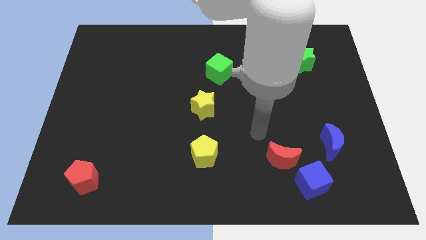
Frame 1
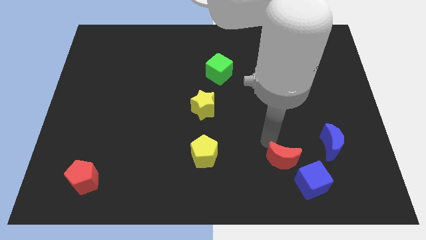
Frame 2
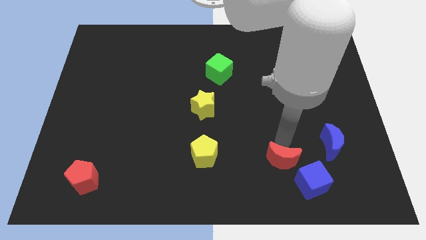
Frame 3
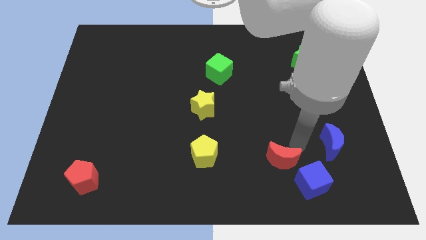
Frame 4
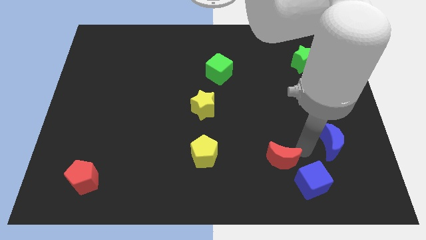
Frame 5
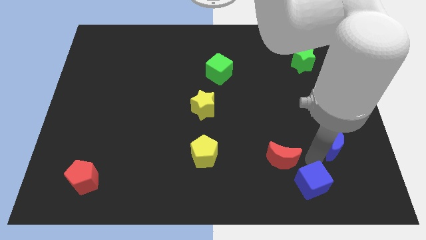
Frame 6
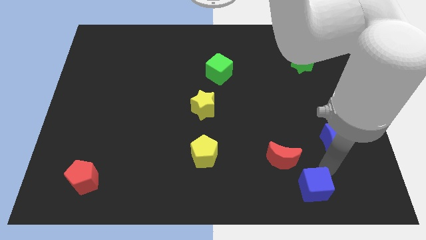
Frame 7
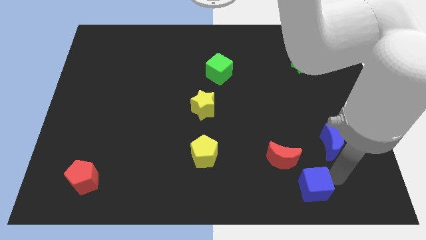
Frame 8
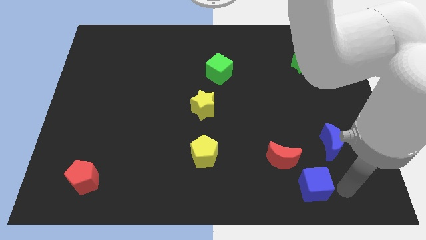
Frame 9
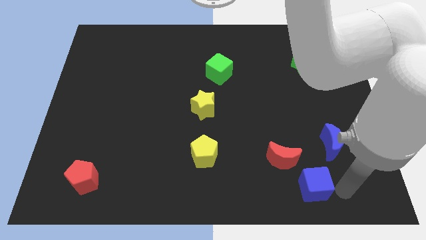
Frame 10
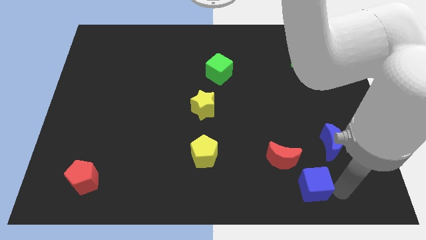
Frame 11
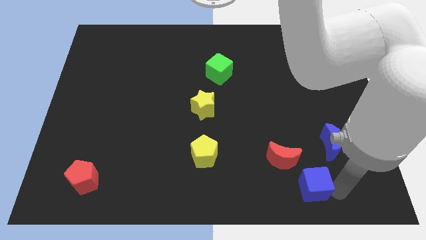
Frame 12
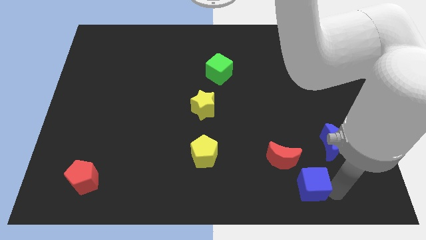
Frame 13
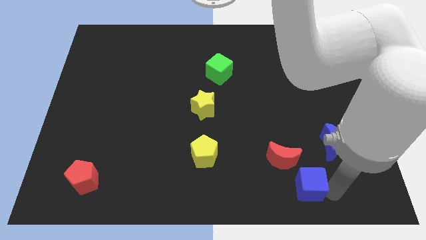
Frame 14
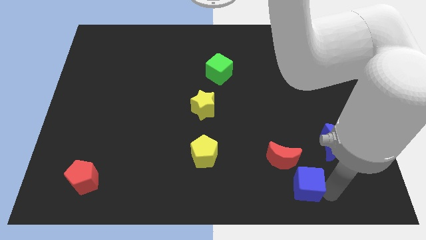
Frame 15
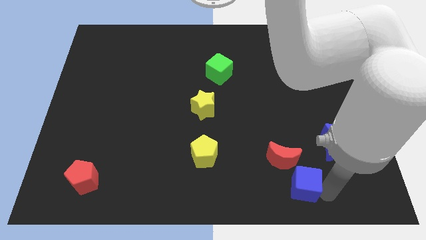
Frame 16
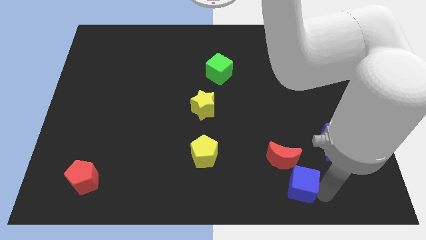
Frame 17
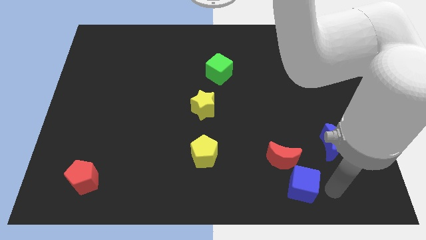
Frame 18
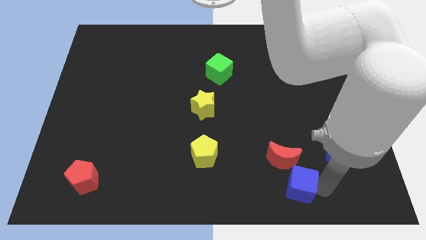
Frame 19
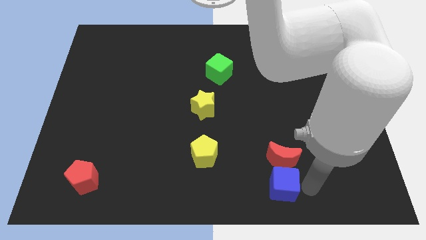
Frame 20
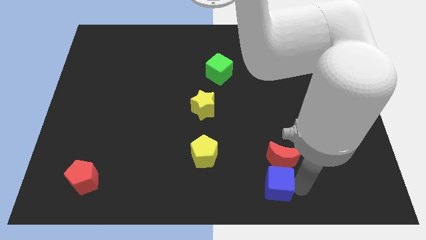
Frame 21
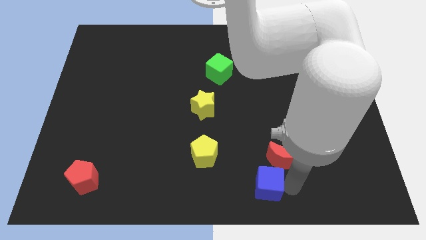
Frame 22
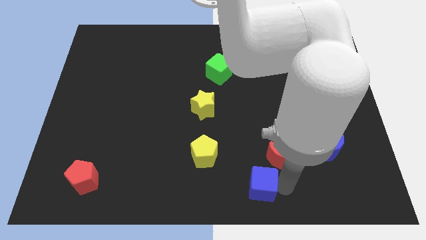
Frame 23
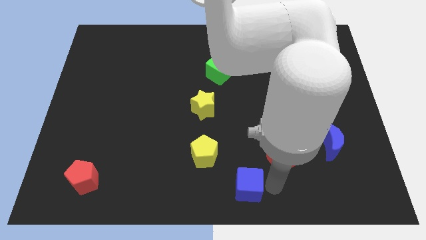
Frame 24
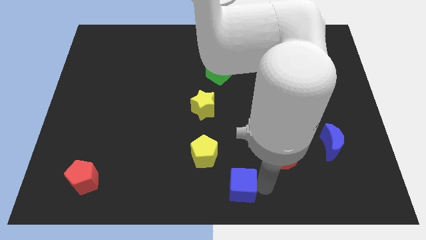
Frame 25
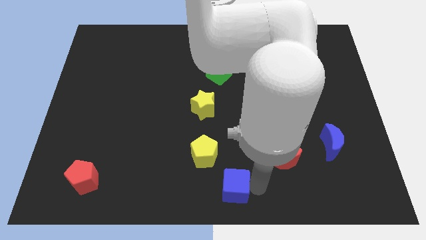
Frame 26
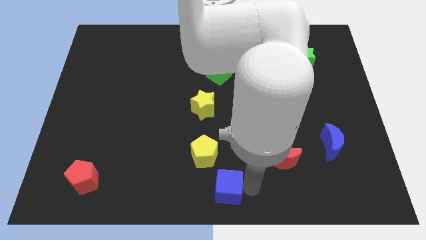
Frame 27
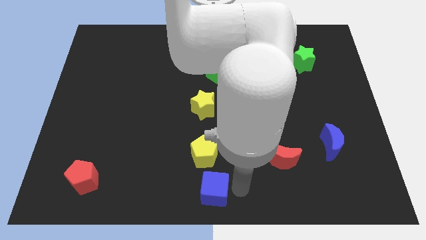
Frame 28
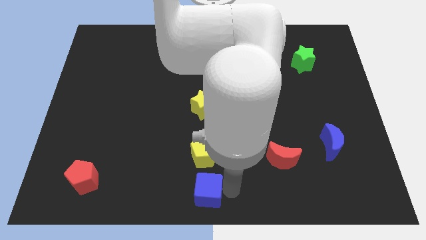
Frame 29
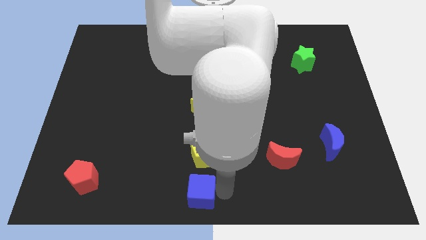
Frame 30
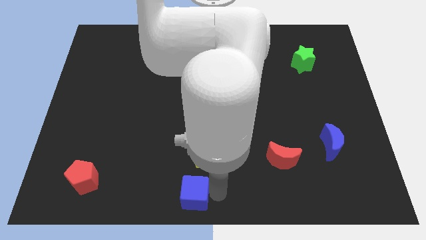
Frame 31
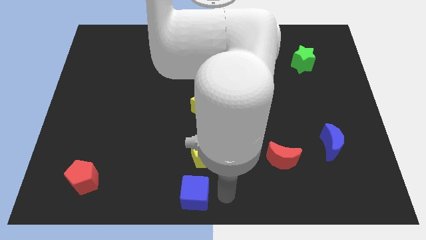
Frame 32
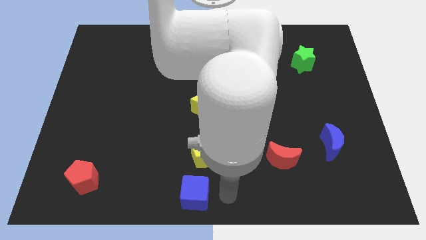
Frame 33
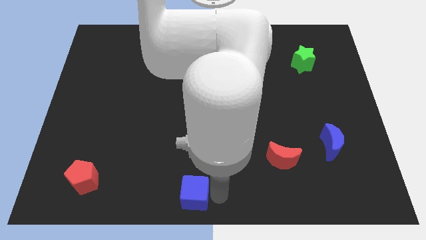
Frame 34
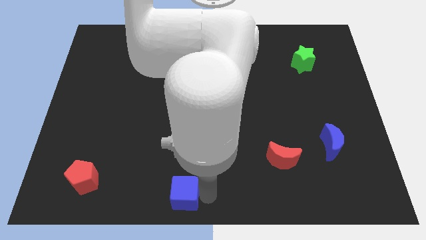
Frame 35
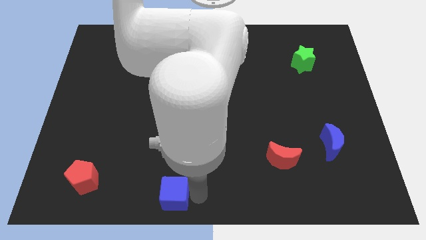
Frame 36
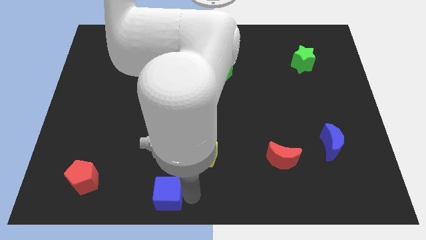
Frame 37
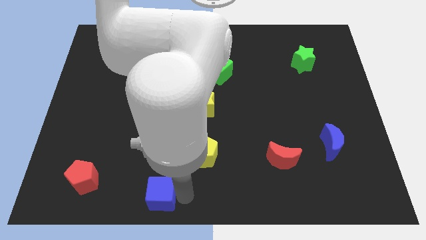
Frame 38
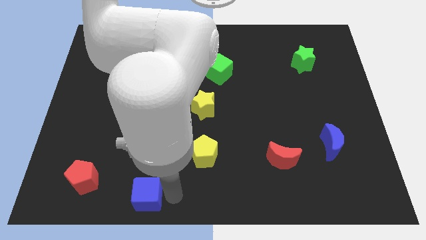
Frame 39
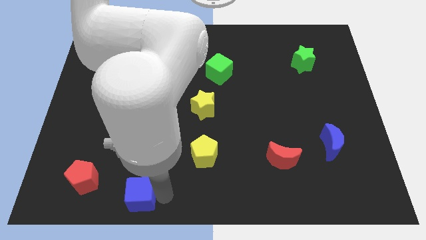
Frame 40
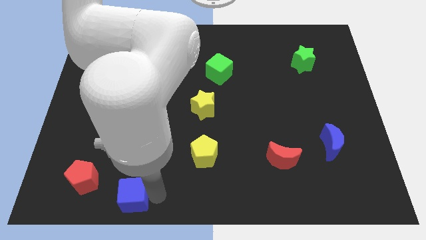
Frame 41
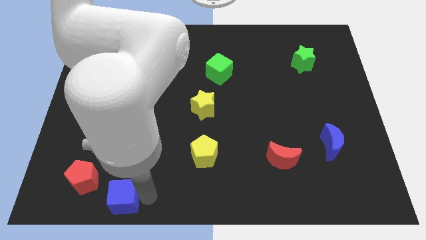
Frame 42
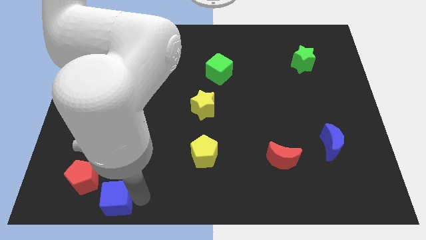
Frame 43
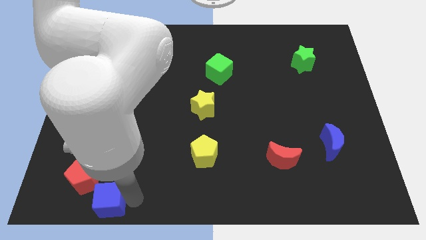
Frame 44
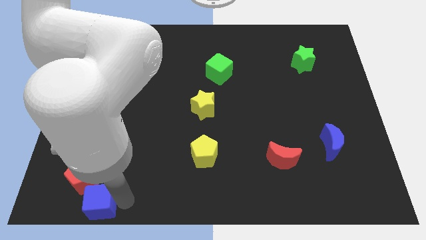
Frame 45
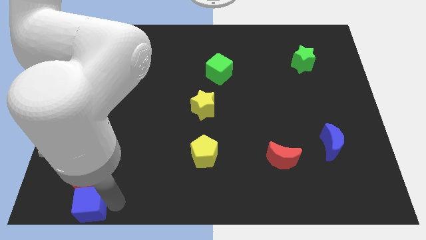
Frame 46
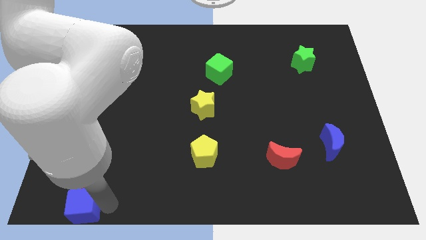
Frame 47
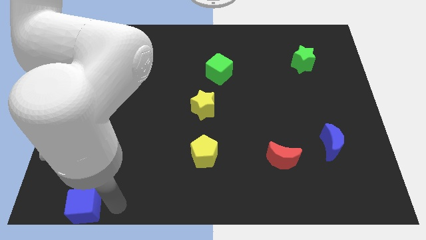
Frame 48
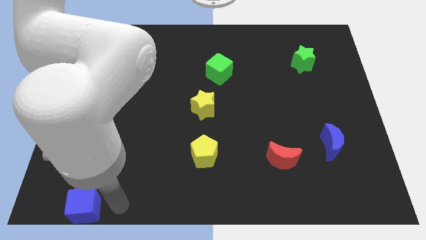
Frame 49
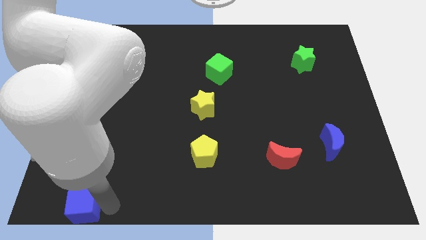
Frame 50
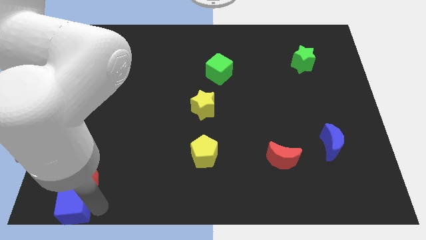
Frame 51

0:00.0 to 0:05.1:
slide the blue cube to the bottom left of the board

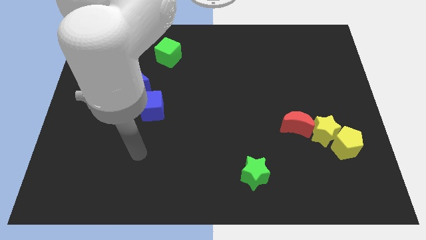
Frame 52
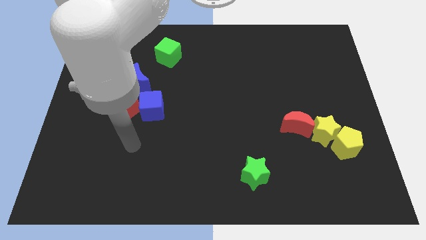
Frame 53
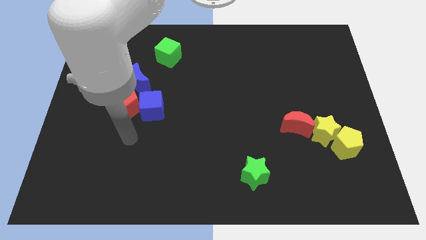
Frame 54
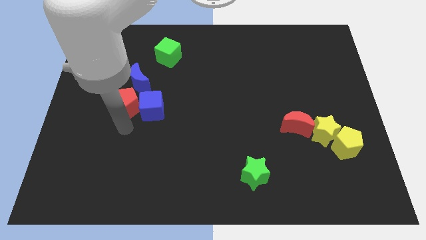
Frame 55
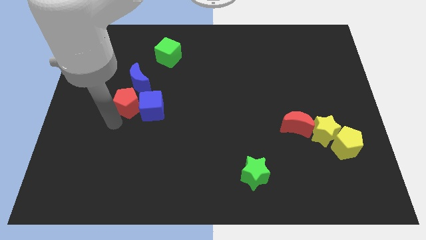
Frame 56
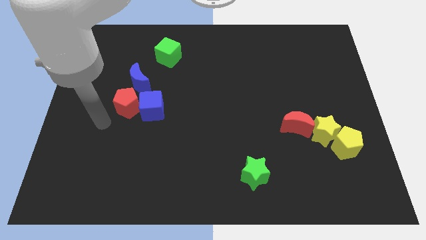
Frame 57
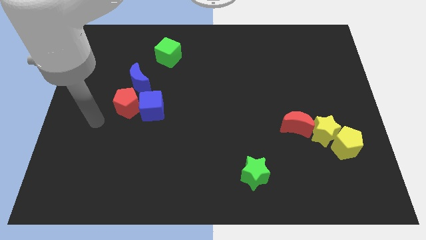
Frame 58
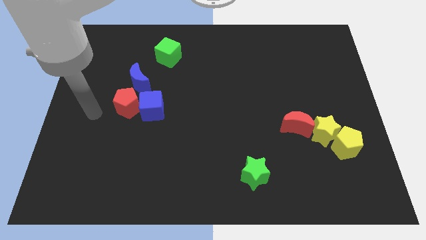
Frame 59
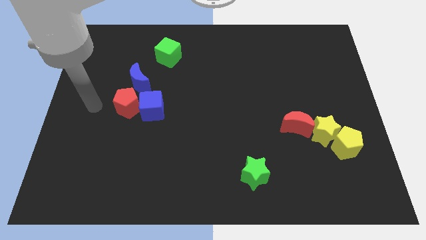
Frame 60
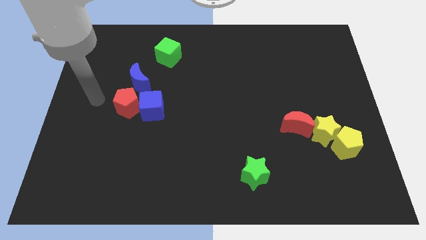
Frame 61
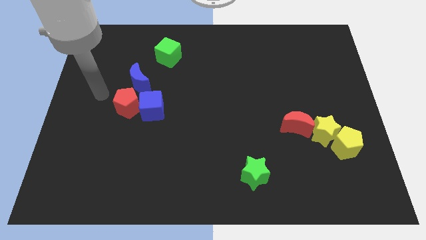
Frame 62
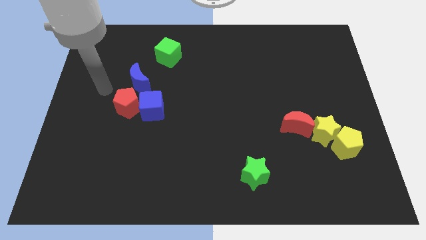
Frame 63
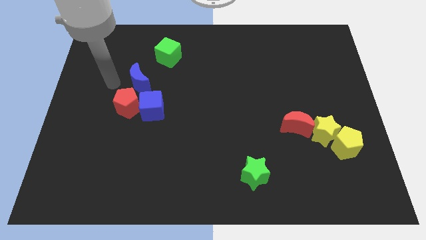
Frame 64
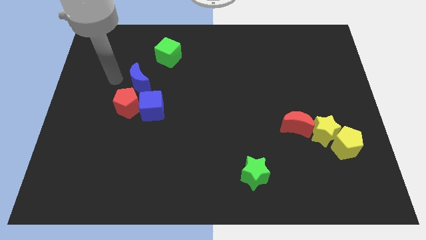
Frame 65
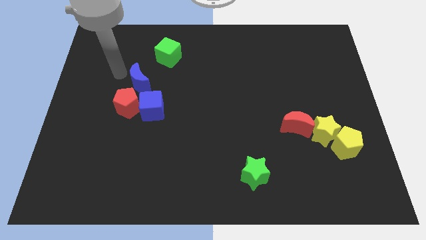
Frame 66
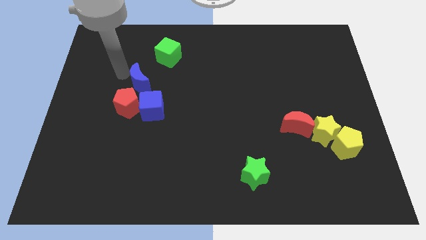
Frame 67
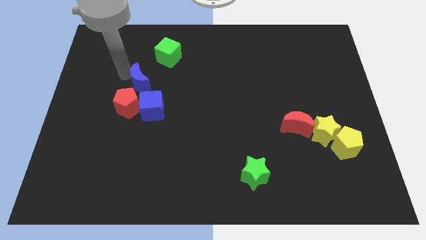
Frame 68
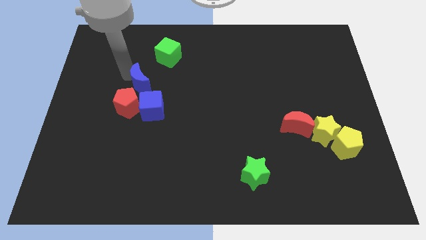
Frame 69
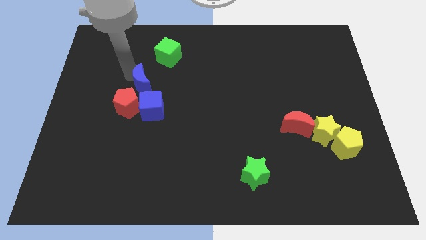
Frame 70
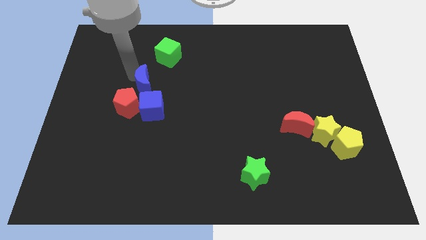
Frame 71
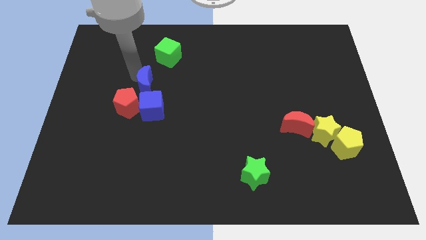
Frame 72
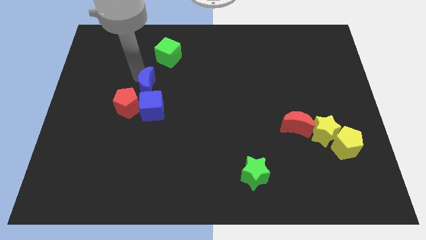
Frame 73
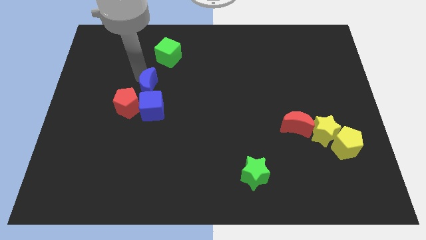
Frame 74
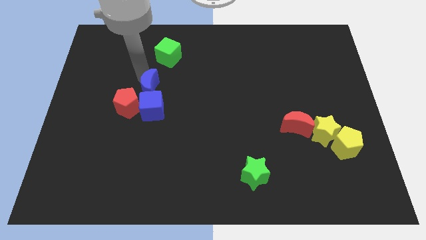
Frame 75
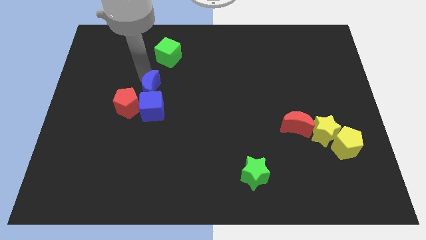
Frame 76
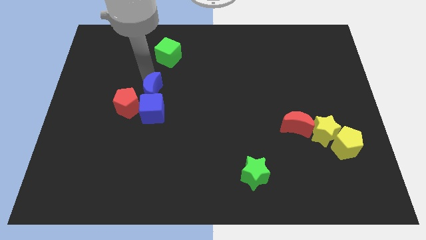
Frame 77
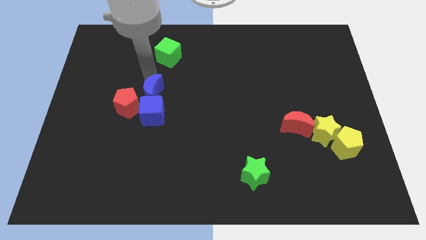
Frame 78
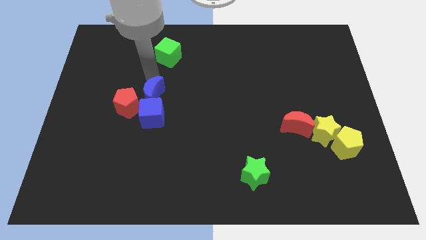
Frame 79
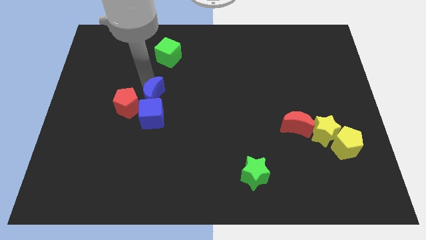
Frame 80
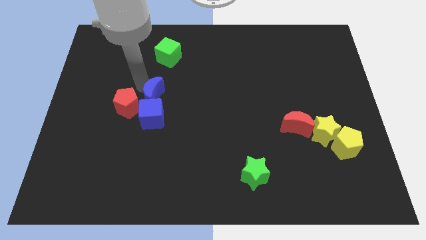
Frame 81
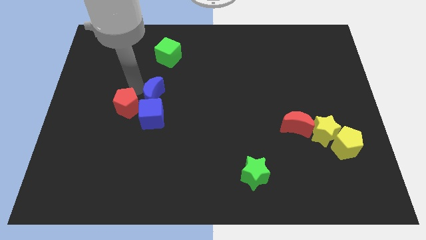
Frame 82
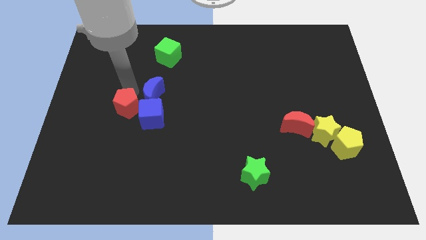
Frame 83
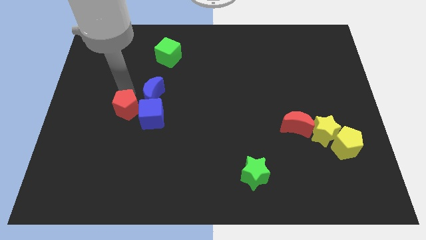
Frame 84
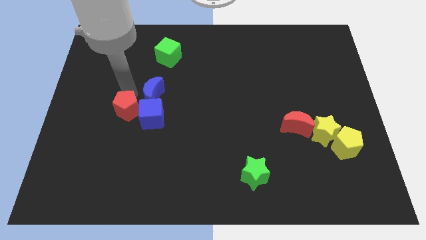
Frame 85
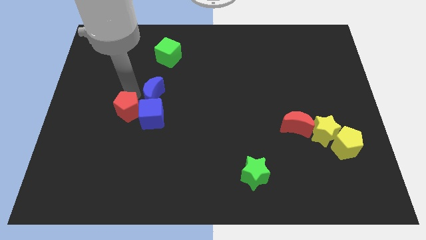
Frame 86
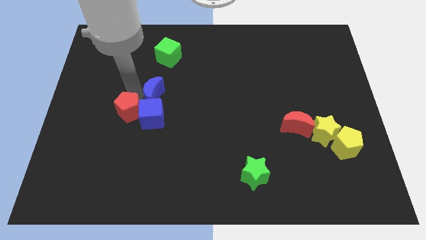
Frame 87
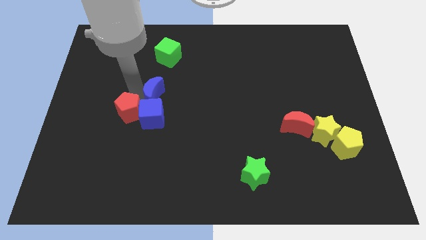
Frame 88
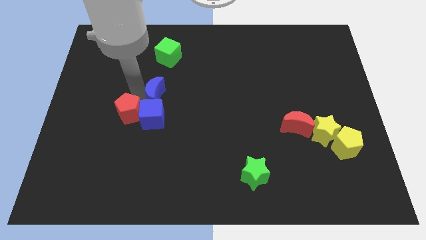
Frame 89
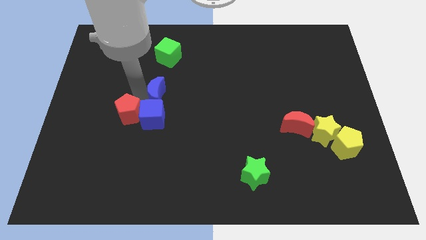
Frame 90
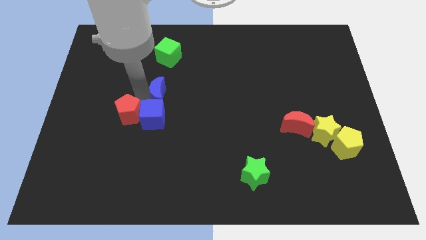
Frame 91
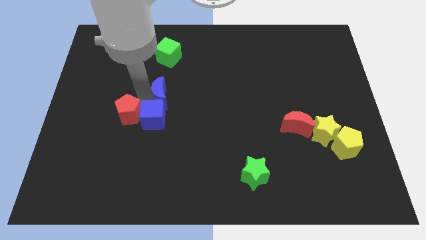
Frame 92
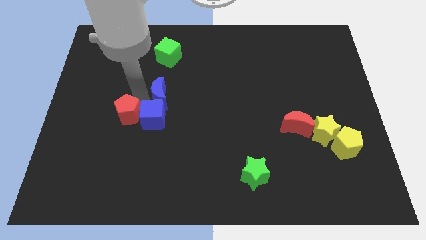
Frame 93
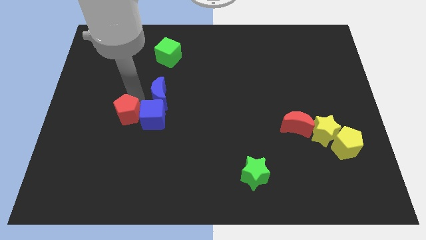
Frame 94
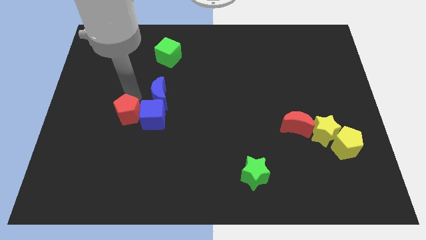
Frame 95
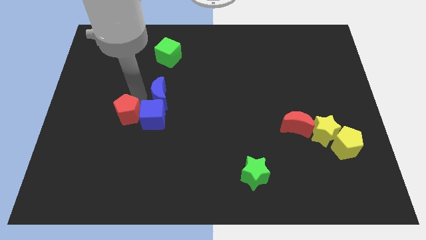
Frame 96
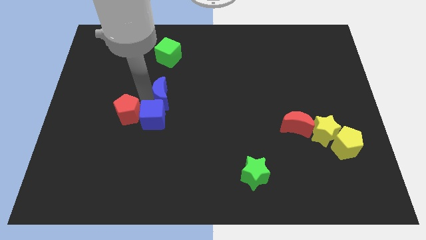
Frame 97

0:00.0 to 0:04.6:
push the blue moon to the center
